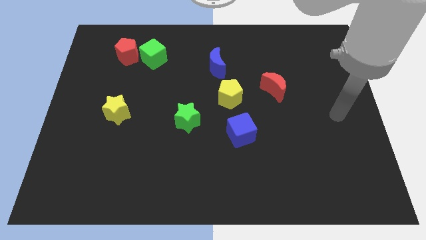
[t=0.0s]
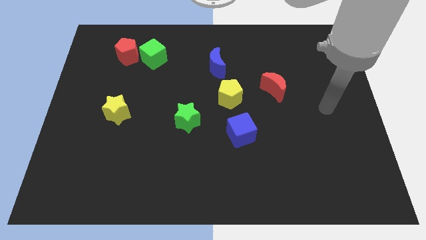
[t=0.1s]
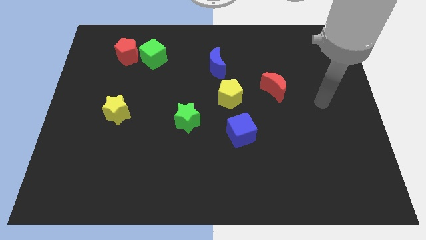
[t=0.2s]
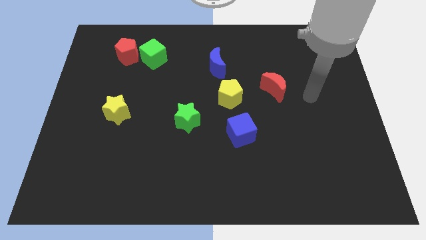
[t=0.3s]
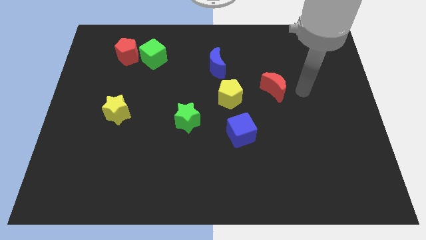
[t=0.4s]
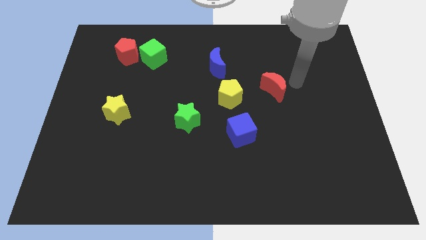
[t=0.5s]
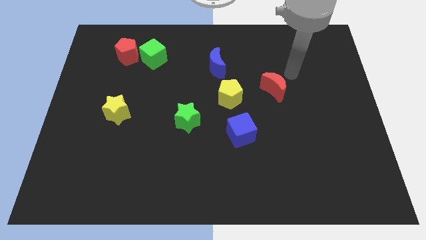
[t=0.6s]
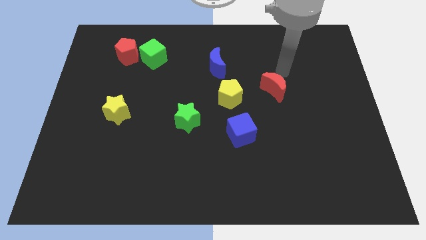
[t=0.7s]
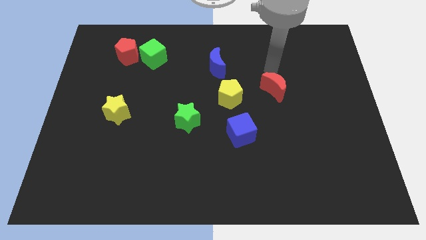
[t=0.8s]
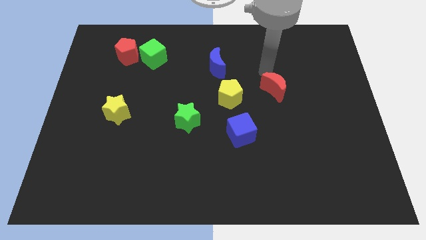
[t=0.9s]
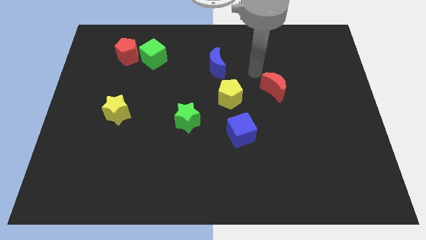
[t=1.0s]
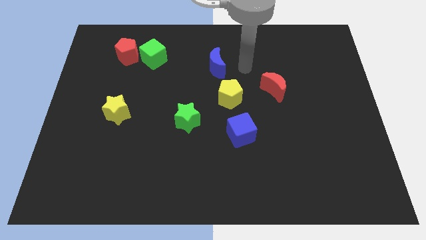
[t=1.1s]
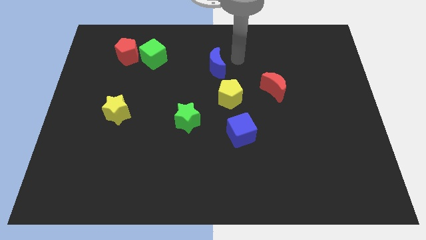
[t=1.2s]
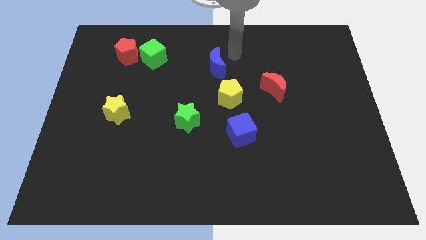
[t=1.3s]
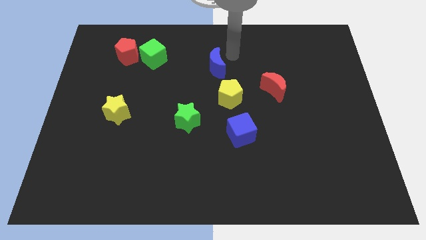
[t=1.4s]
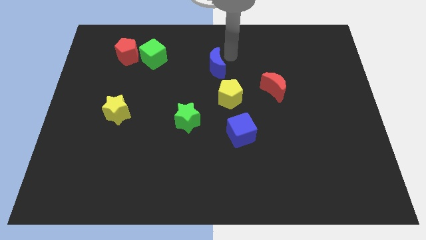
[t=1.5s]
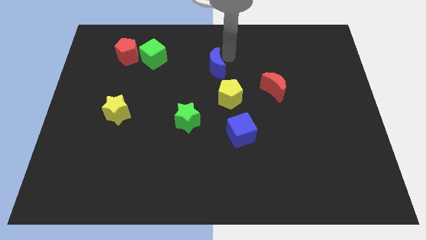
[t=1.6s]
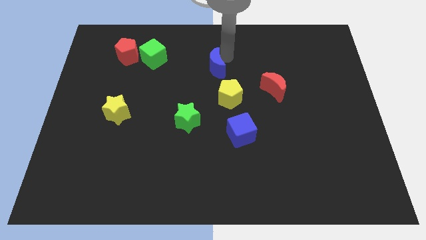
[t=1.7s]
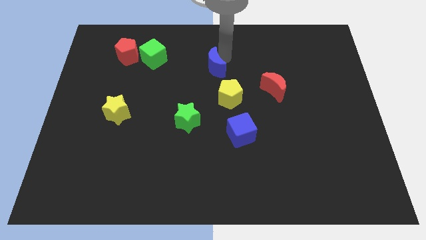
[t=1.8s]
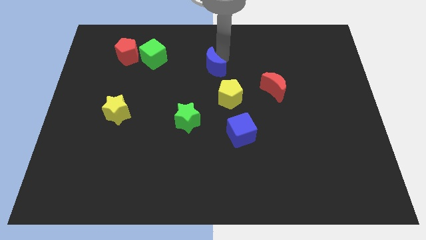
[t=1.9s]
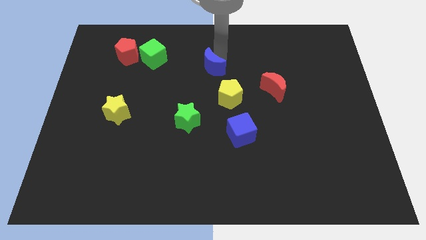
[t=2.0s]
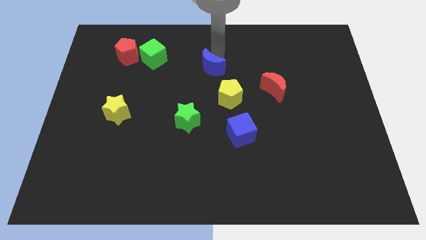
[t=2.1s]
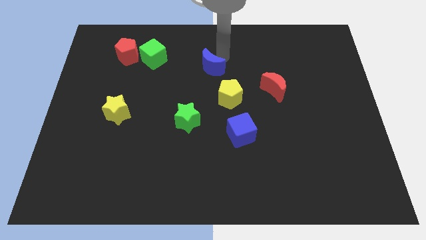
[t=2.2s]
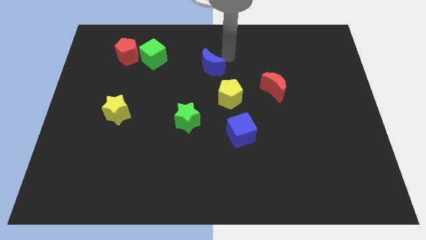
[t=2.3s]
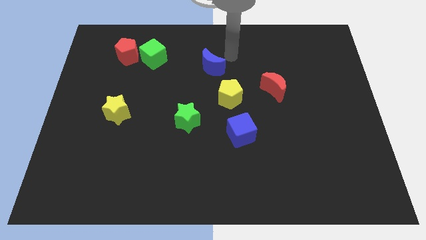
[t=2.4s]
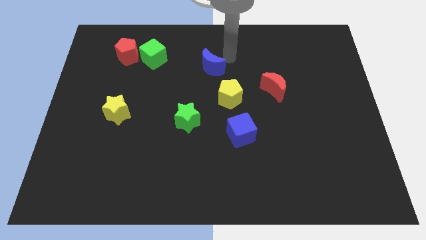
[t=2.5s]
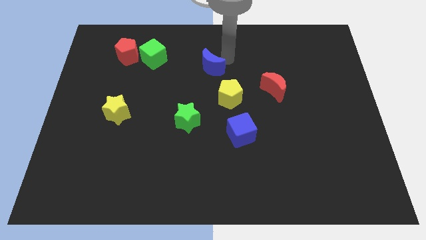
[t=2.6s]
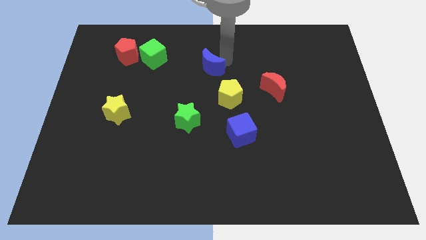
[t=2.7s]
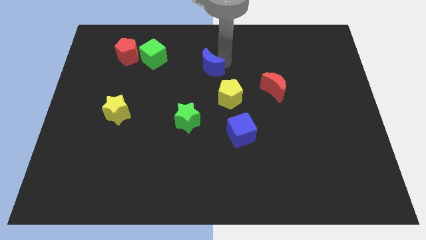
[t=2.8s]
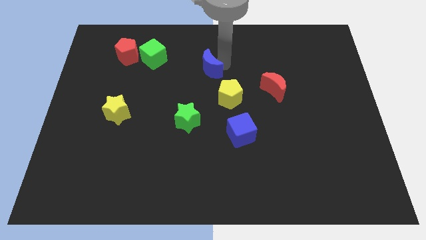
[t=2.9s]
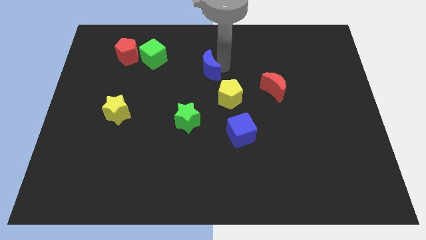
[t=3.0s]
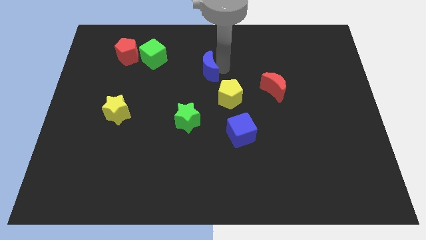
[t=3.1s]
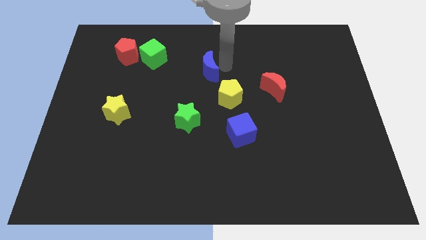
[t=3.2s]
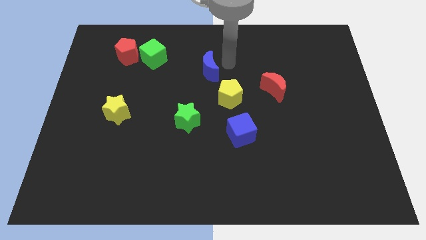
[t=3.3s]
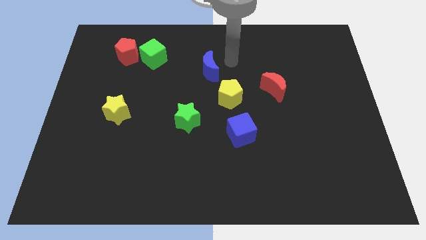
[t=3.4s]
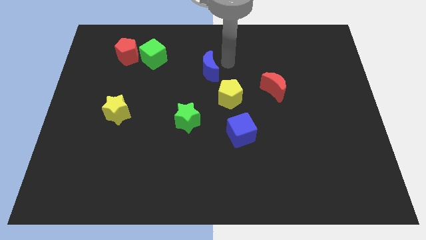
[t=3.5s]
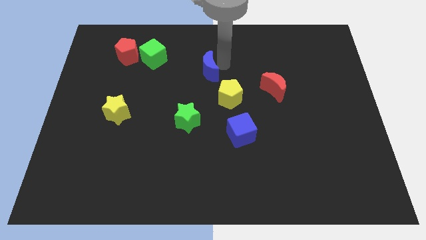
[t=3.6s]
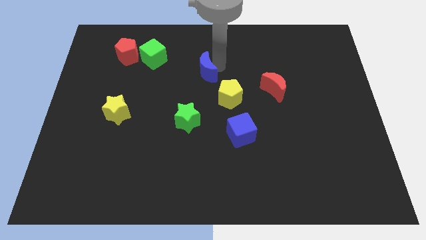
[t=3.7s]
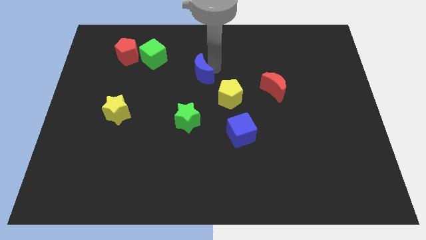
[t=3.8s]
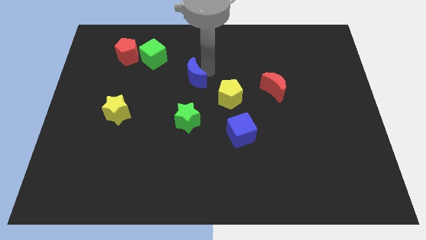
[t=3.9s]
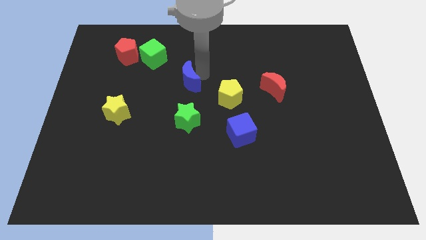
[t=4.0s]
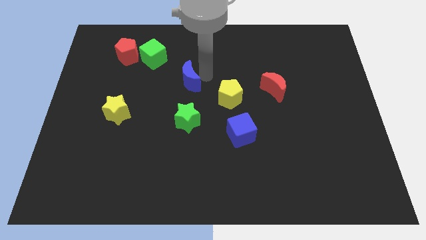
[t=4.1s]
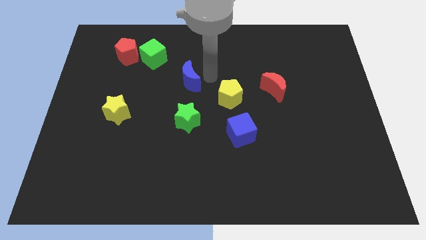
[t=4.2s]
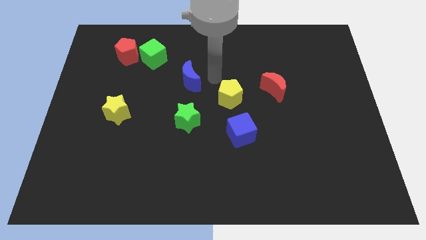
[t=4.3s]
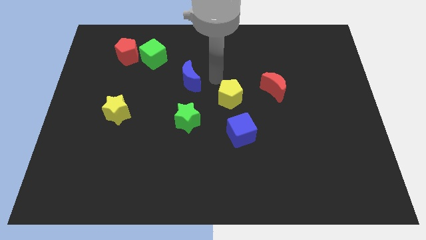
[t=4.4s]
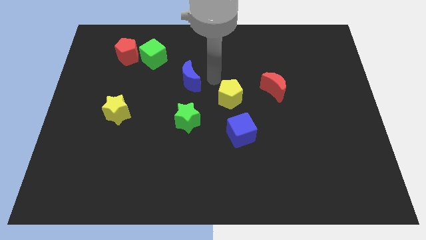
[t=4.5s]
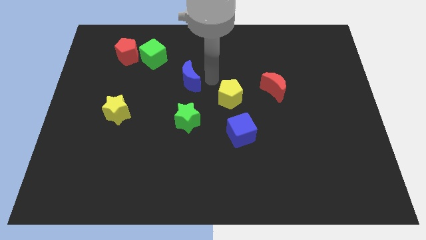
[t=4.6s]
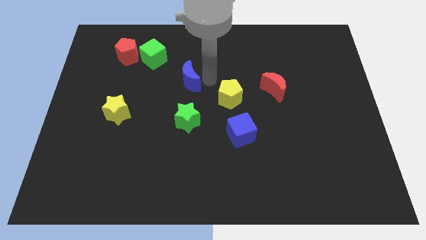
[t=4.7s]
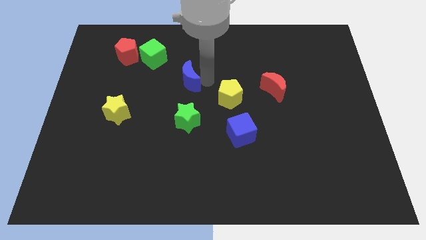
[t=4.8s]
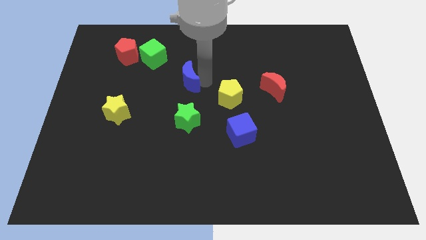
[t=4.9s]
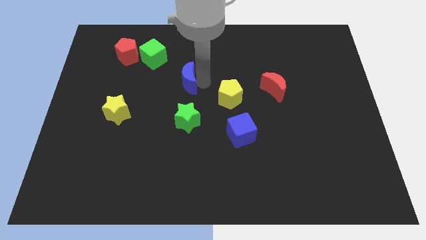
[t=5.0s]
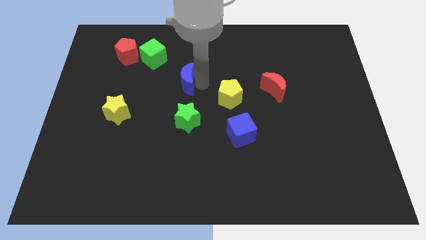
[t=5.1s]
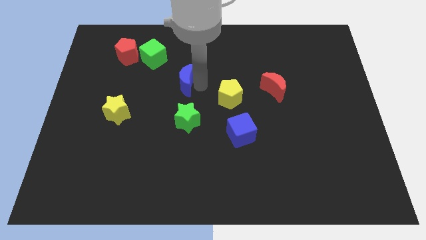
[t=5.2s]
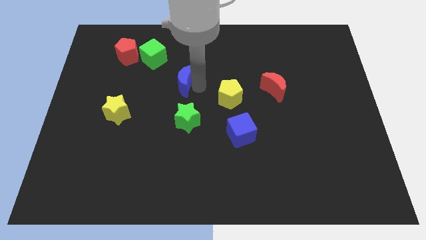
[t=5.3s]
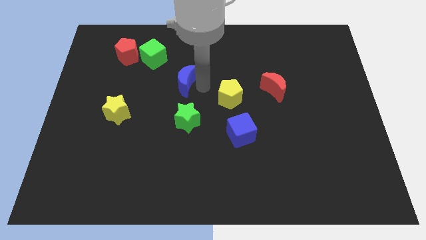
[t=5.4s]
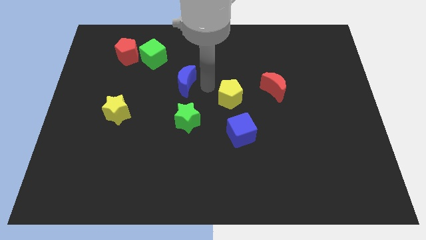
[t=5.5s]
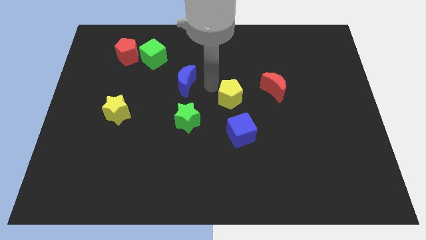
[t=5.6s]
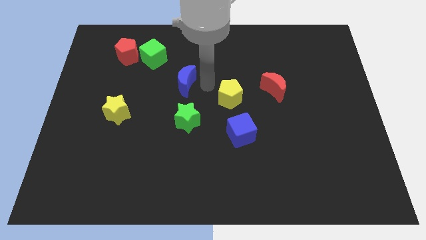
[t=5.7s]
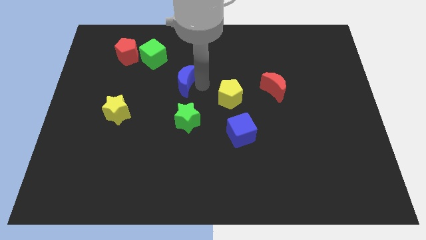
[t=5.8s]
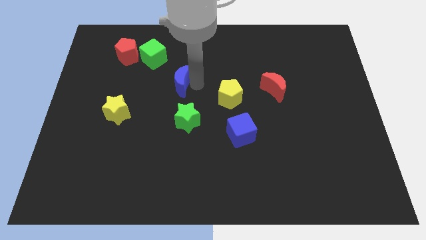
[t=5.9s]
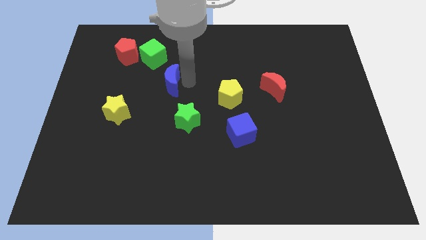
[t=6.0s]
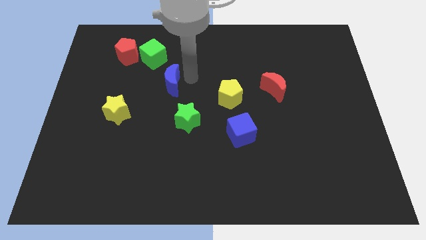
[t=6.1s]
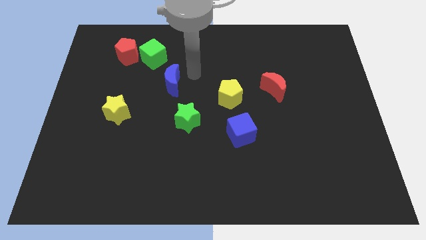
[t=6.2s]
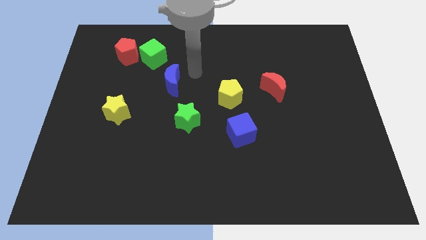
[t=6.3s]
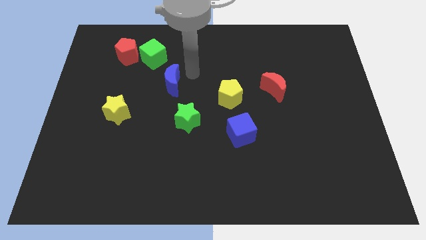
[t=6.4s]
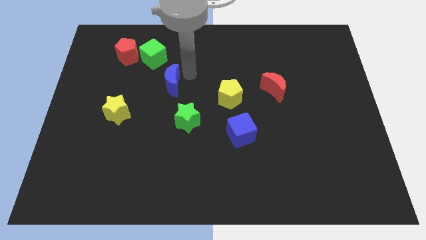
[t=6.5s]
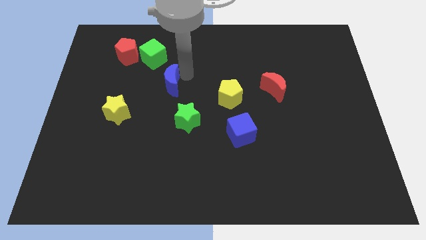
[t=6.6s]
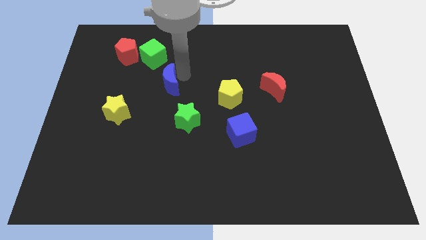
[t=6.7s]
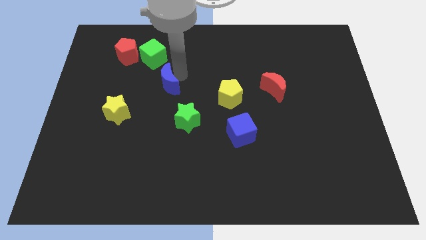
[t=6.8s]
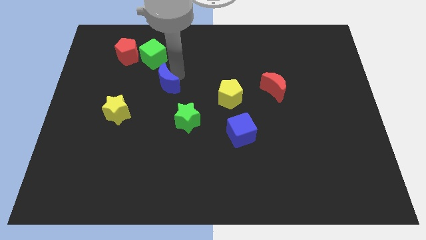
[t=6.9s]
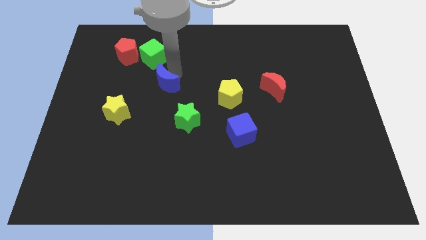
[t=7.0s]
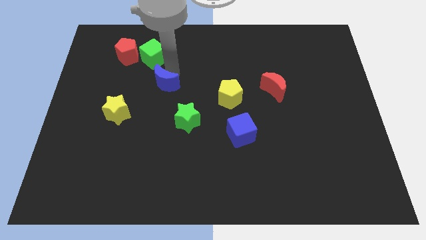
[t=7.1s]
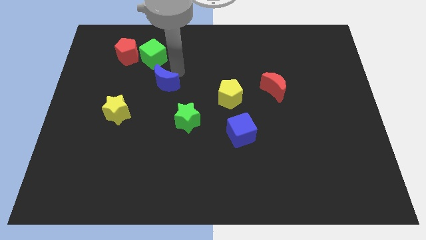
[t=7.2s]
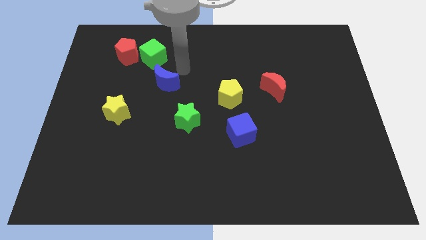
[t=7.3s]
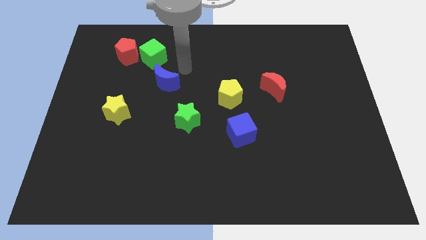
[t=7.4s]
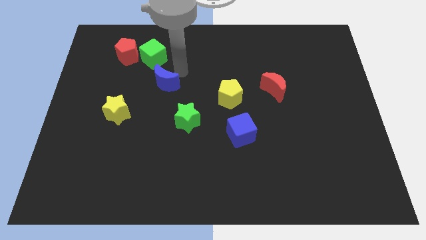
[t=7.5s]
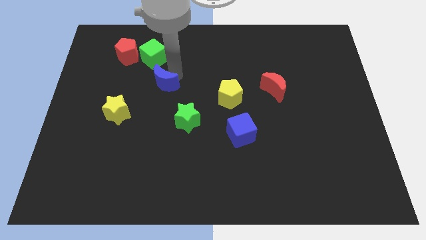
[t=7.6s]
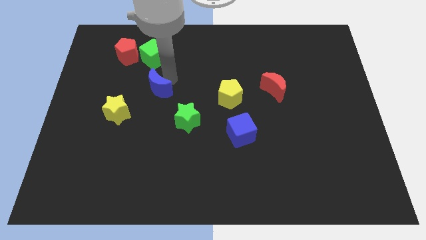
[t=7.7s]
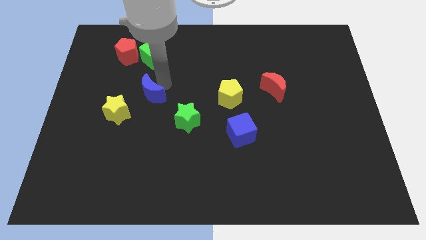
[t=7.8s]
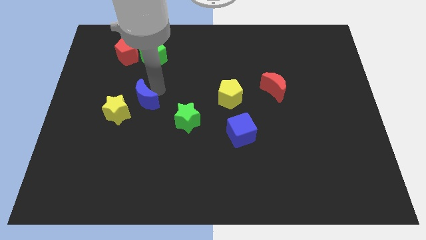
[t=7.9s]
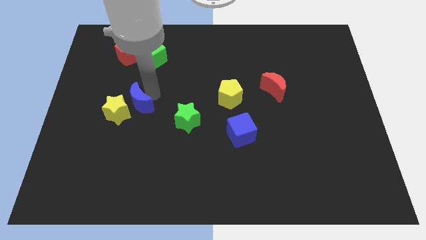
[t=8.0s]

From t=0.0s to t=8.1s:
push the blue moon to the yellow star
